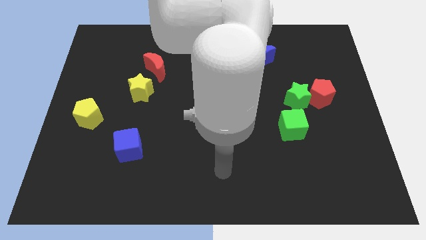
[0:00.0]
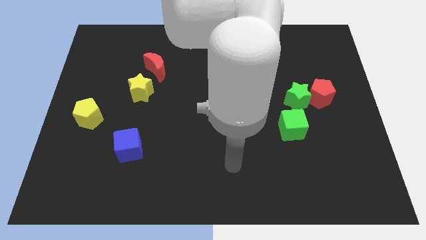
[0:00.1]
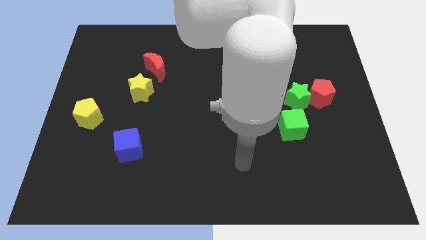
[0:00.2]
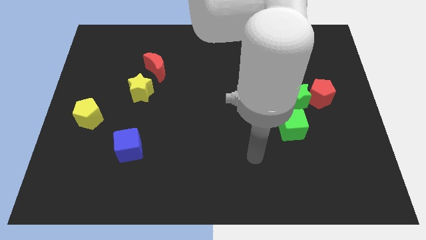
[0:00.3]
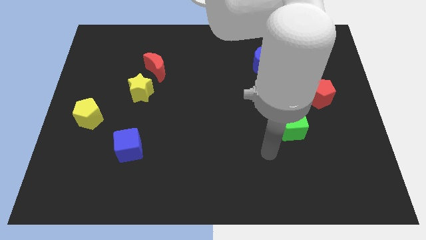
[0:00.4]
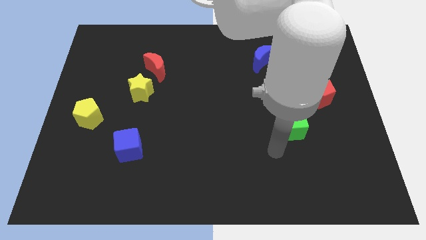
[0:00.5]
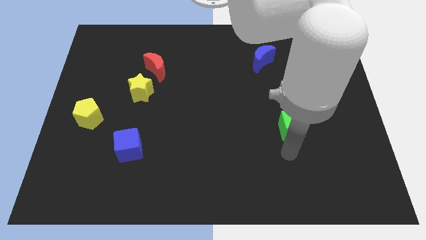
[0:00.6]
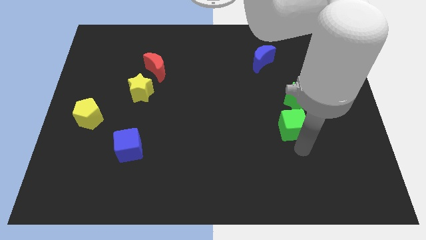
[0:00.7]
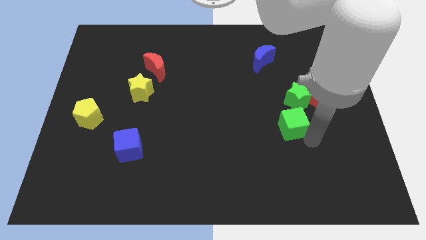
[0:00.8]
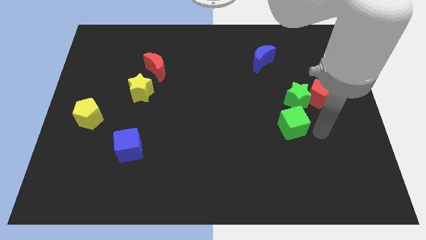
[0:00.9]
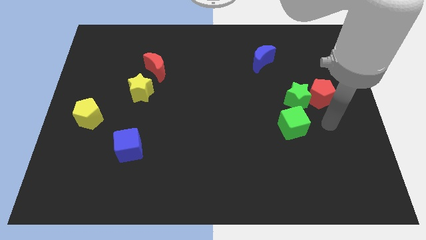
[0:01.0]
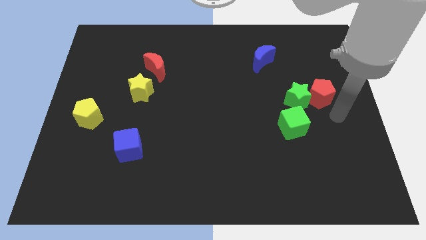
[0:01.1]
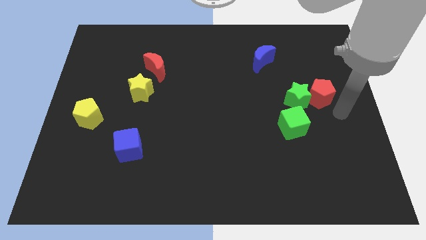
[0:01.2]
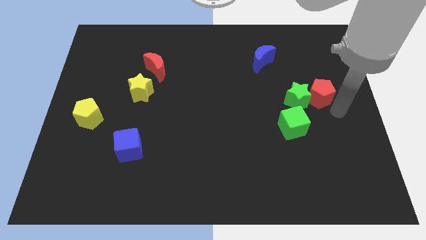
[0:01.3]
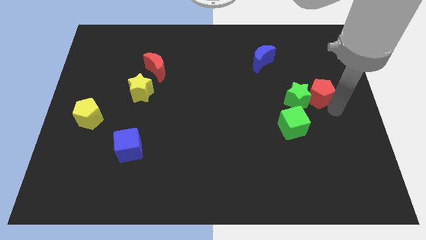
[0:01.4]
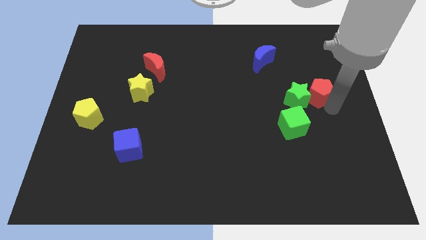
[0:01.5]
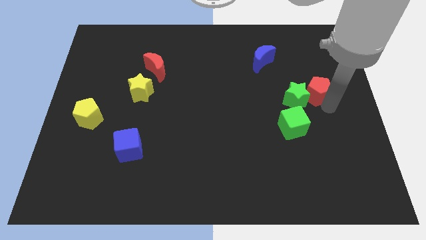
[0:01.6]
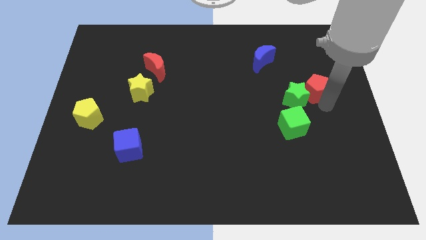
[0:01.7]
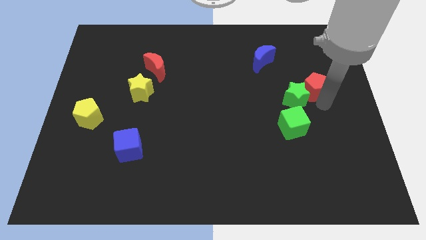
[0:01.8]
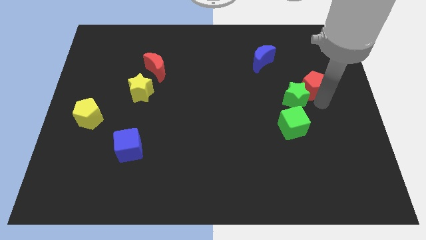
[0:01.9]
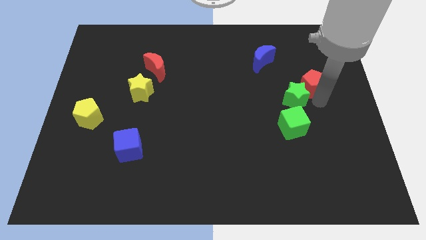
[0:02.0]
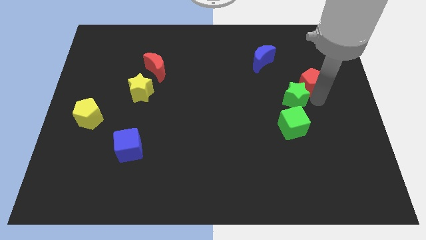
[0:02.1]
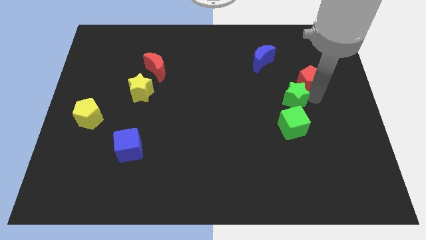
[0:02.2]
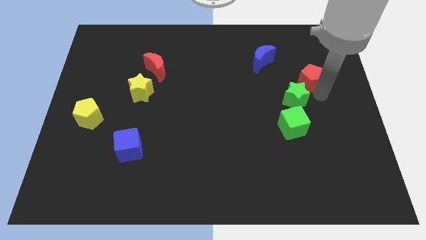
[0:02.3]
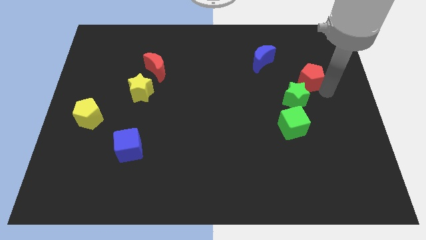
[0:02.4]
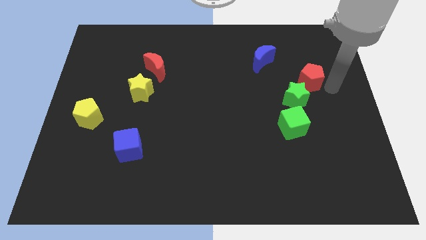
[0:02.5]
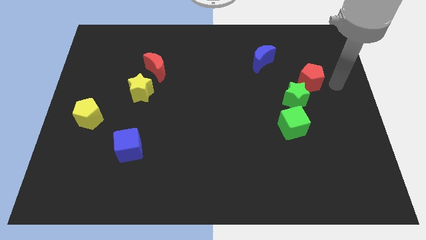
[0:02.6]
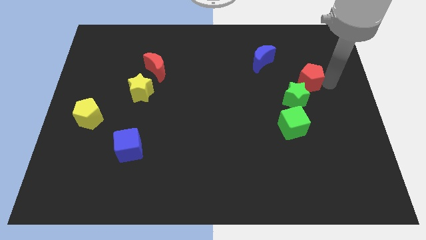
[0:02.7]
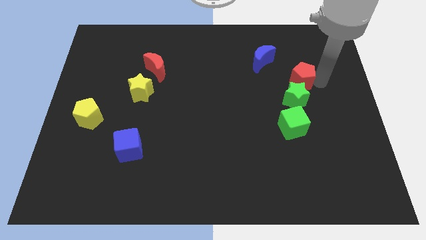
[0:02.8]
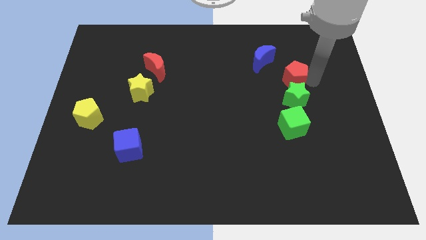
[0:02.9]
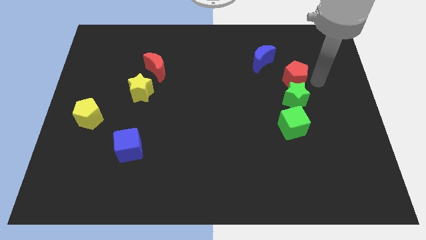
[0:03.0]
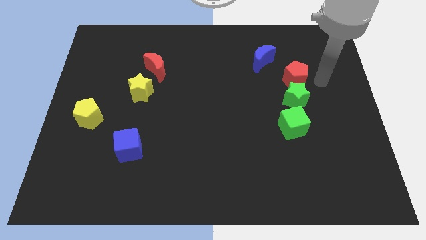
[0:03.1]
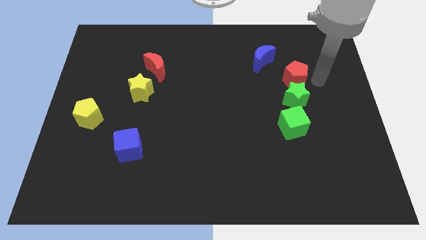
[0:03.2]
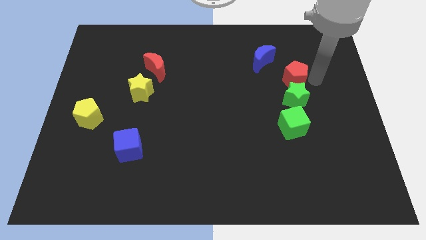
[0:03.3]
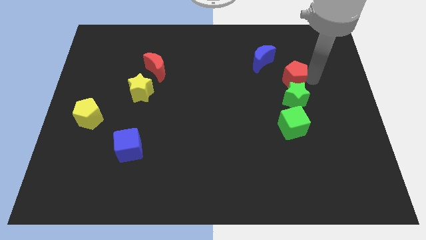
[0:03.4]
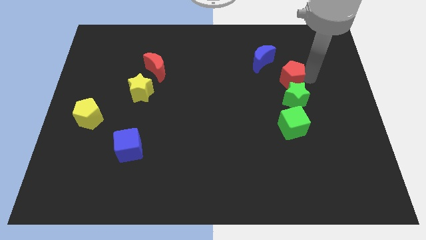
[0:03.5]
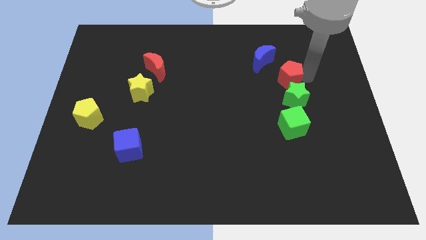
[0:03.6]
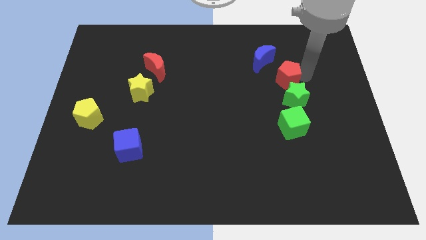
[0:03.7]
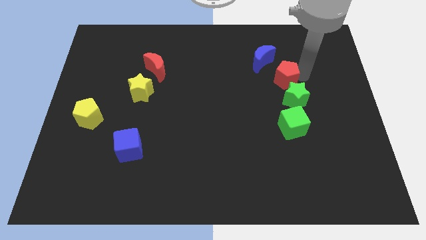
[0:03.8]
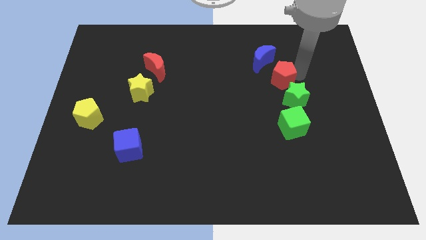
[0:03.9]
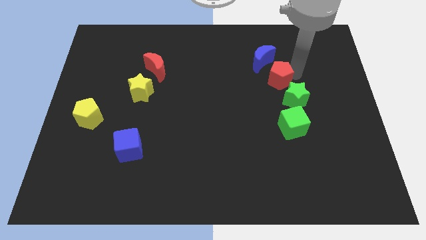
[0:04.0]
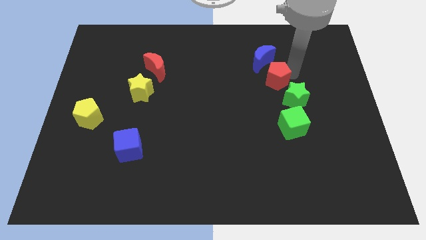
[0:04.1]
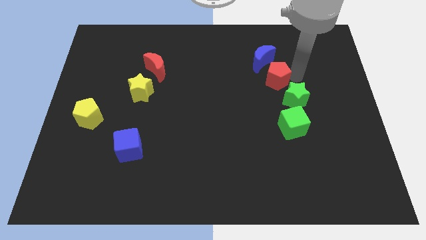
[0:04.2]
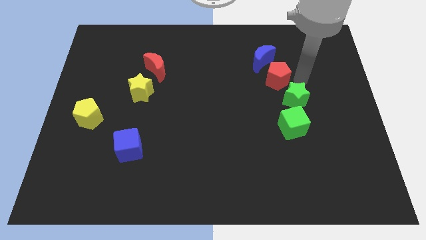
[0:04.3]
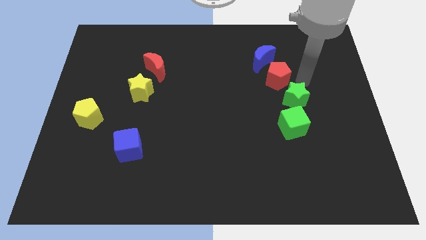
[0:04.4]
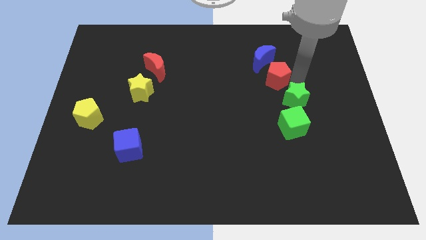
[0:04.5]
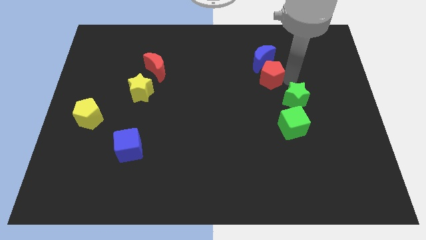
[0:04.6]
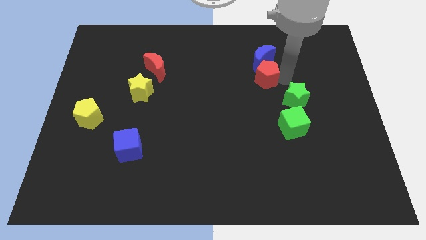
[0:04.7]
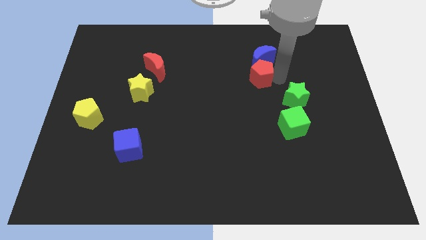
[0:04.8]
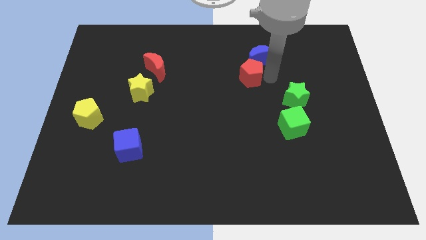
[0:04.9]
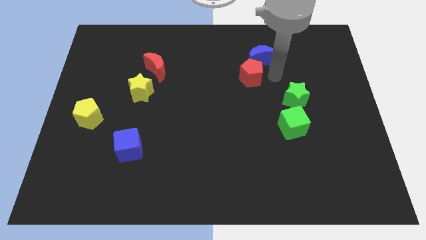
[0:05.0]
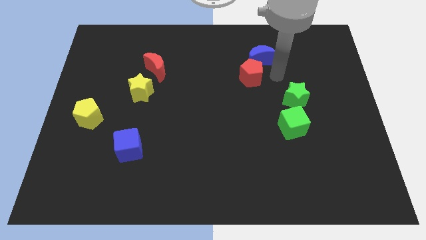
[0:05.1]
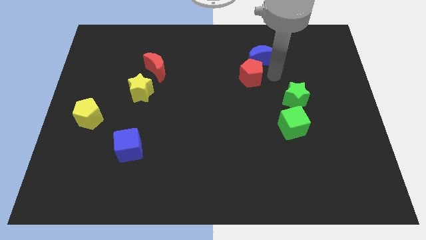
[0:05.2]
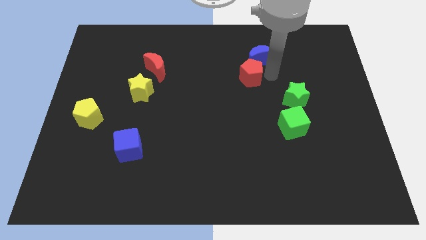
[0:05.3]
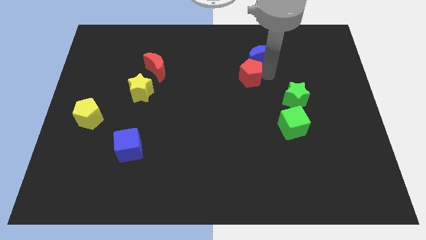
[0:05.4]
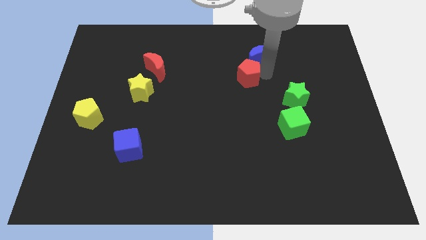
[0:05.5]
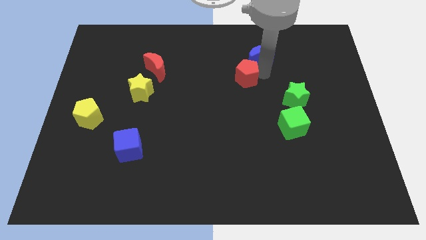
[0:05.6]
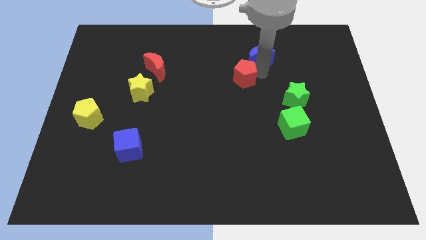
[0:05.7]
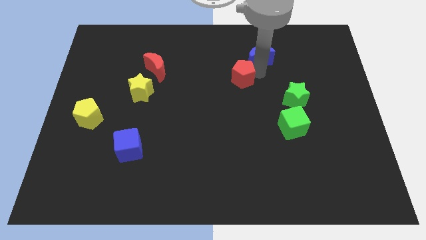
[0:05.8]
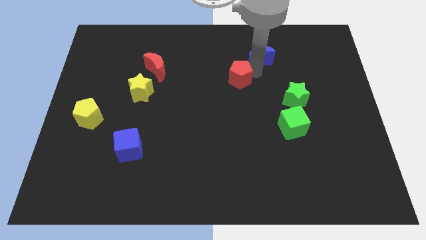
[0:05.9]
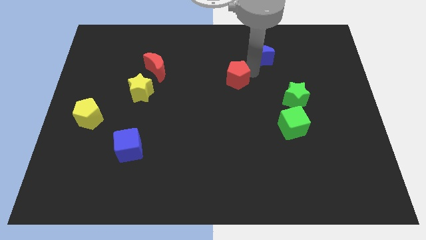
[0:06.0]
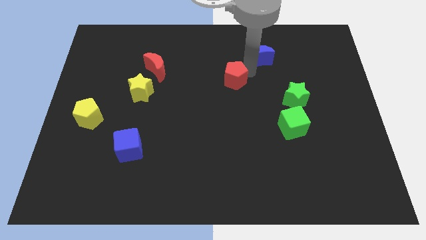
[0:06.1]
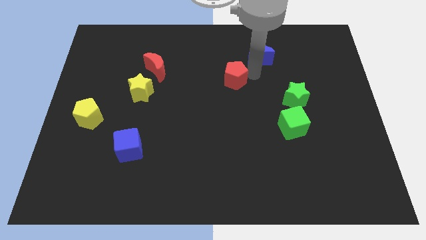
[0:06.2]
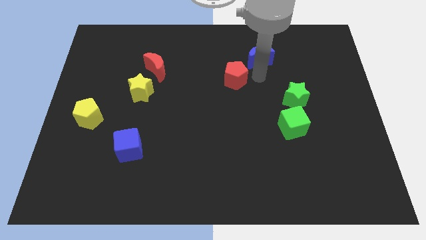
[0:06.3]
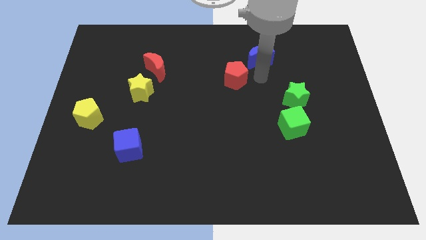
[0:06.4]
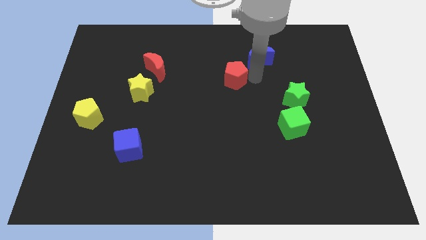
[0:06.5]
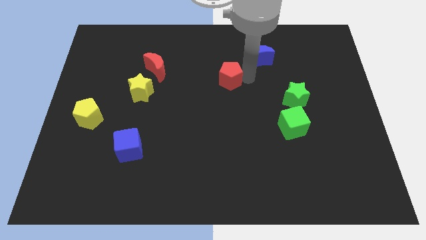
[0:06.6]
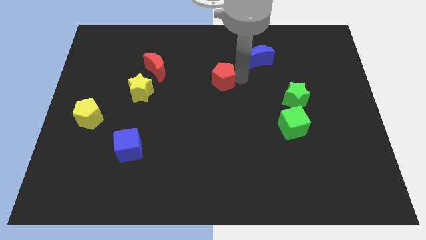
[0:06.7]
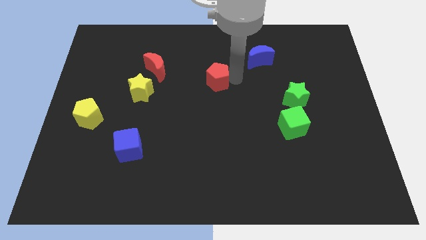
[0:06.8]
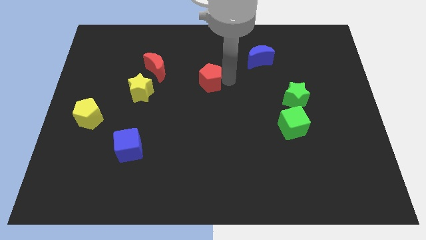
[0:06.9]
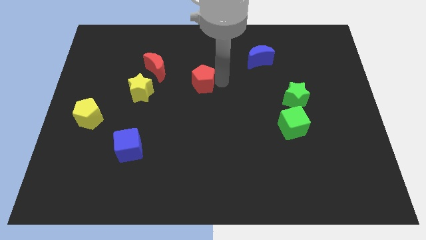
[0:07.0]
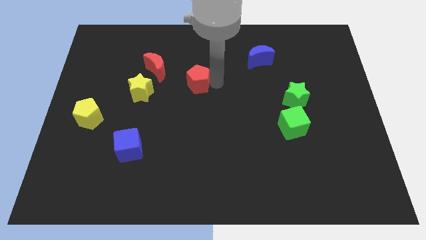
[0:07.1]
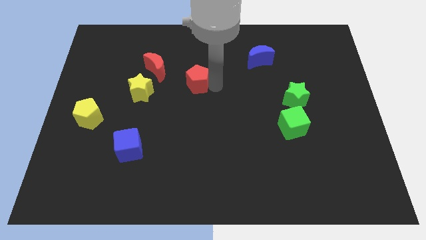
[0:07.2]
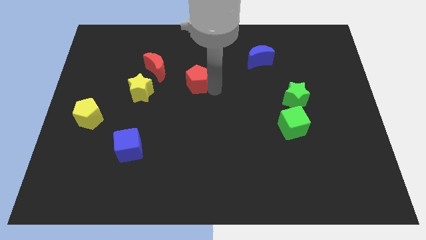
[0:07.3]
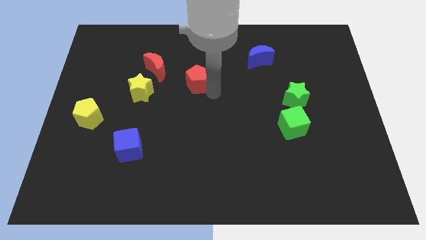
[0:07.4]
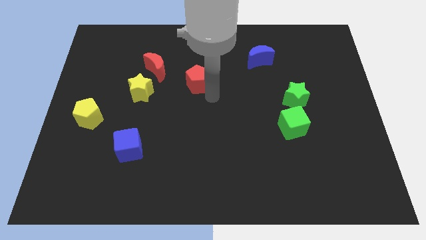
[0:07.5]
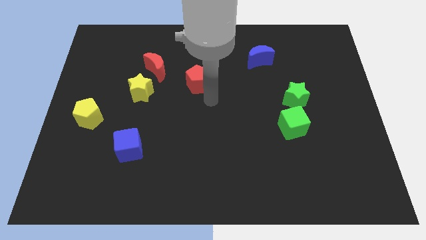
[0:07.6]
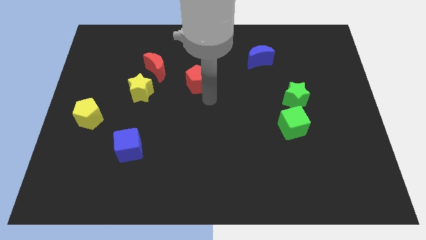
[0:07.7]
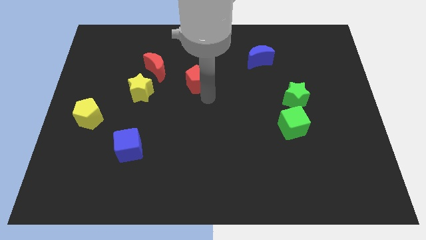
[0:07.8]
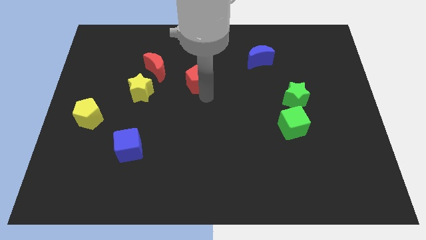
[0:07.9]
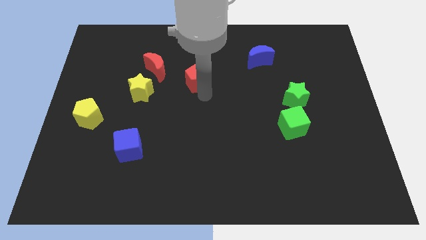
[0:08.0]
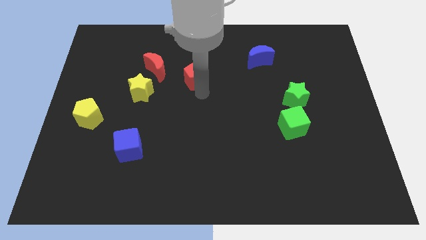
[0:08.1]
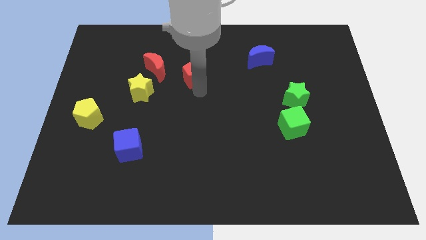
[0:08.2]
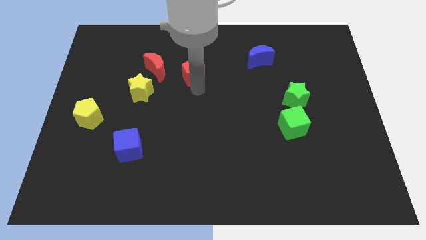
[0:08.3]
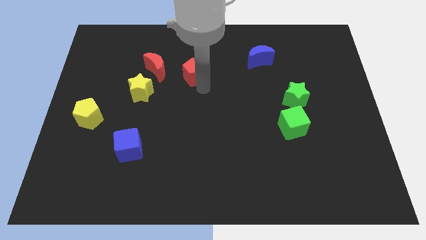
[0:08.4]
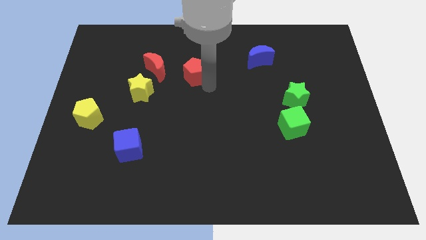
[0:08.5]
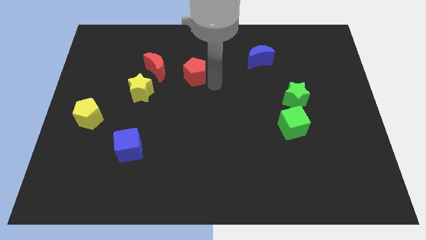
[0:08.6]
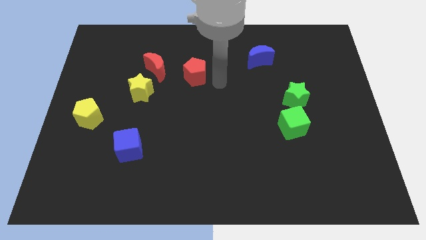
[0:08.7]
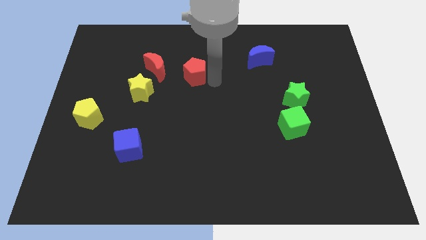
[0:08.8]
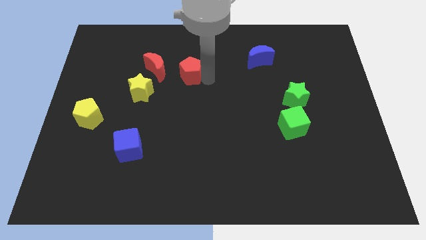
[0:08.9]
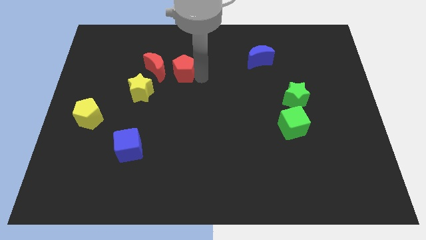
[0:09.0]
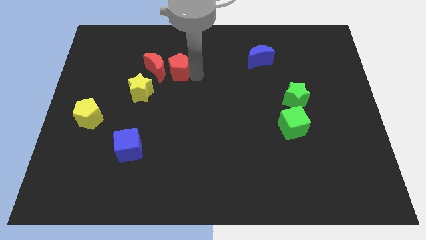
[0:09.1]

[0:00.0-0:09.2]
push the red pentagon to the red moon
